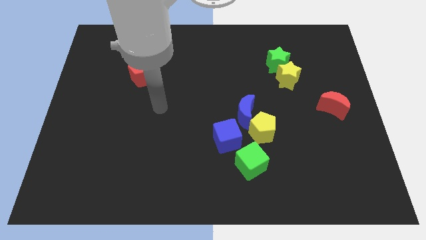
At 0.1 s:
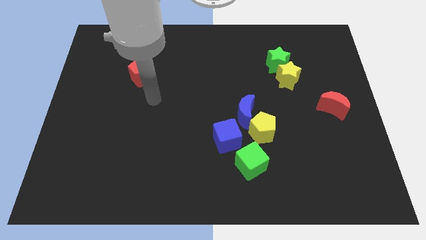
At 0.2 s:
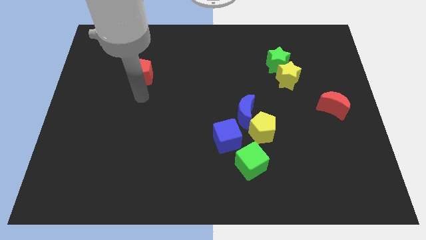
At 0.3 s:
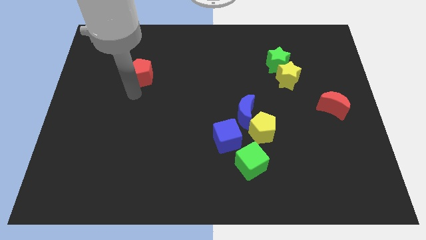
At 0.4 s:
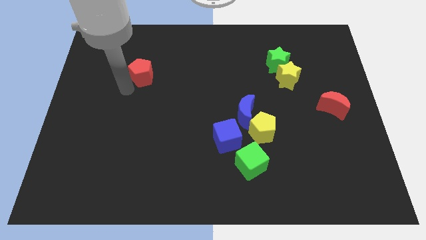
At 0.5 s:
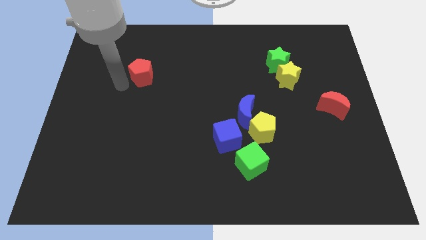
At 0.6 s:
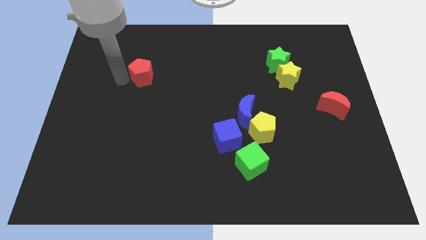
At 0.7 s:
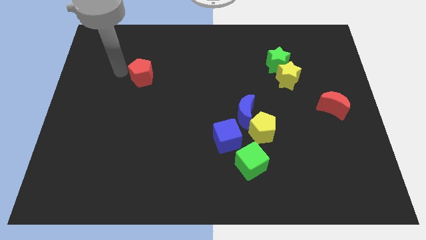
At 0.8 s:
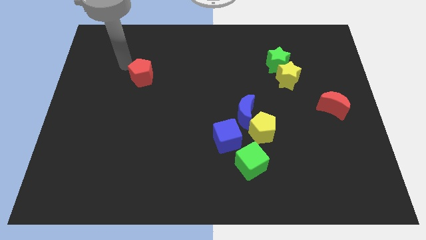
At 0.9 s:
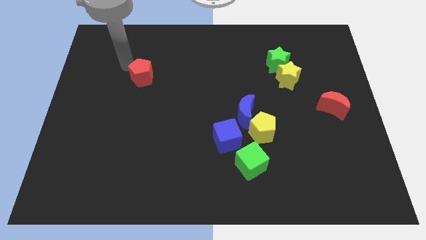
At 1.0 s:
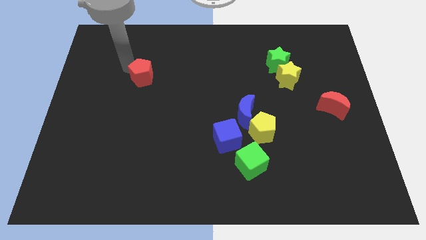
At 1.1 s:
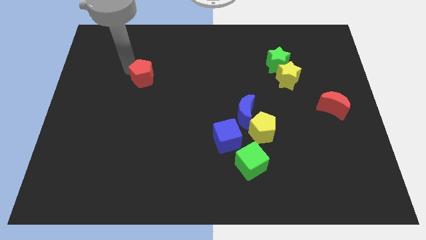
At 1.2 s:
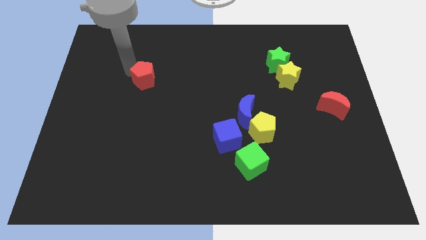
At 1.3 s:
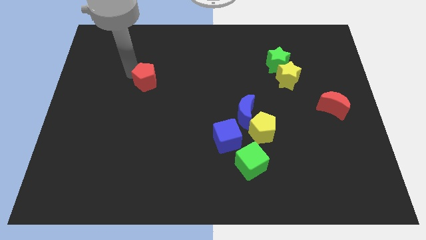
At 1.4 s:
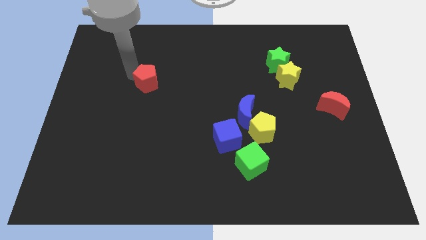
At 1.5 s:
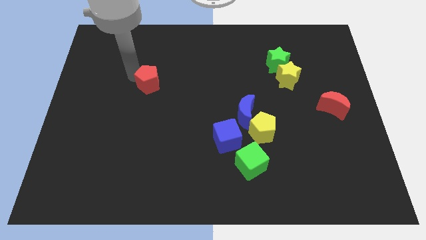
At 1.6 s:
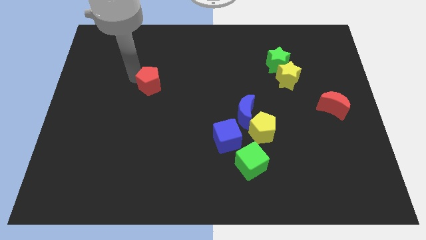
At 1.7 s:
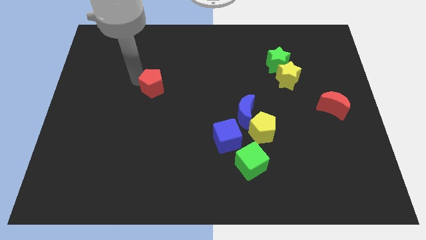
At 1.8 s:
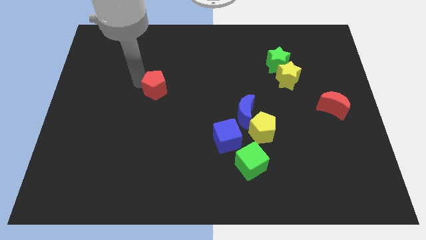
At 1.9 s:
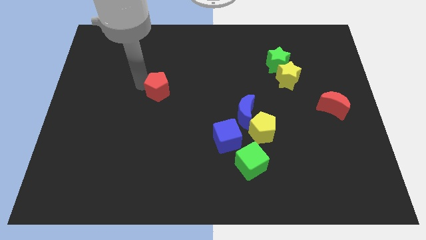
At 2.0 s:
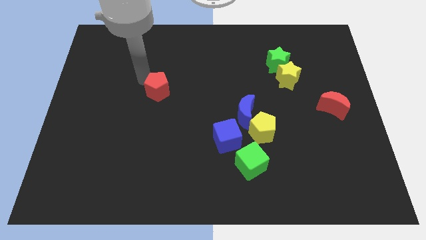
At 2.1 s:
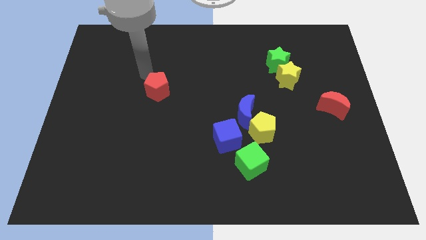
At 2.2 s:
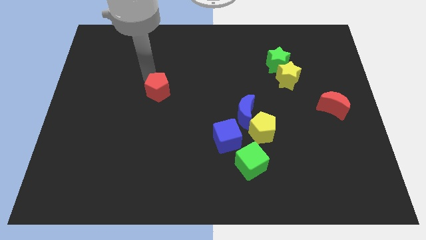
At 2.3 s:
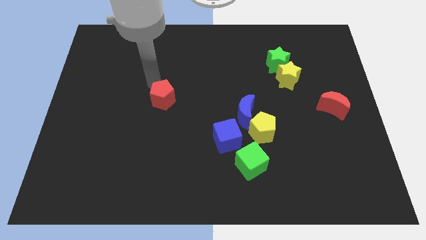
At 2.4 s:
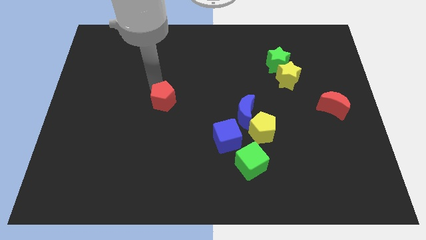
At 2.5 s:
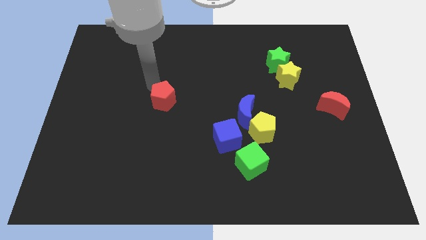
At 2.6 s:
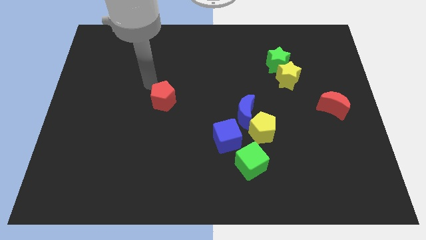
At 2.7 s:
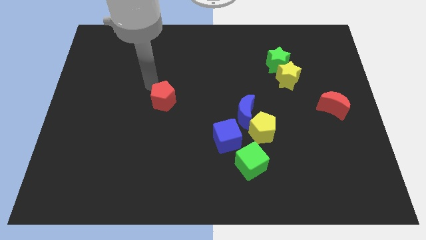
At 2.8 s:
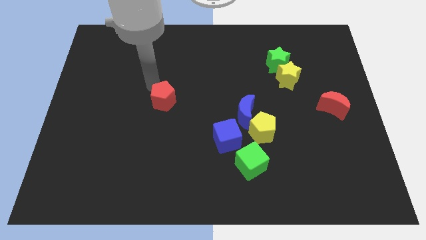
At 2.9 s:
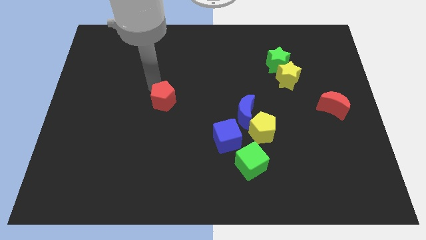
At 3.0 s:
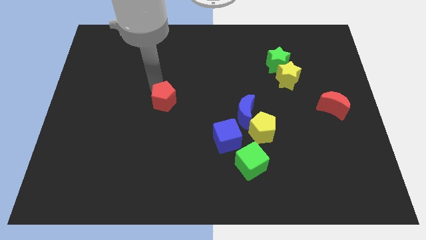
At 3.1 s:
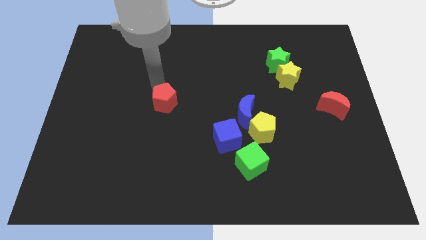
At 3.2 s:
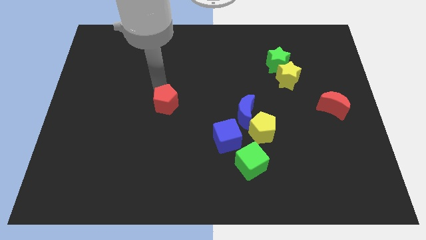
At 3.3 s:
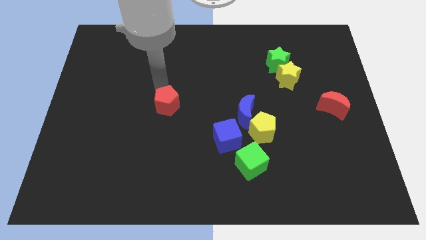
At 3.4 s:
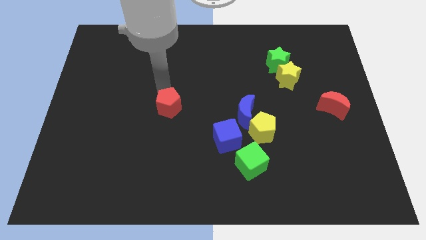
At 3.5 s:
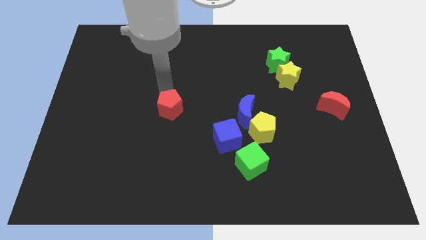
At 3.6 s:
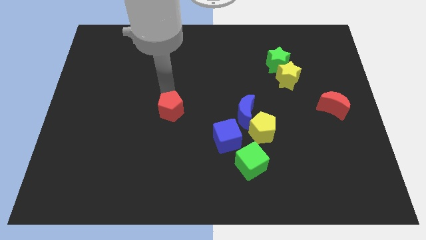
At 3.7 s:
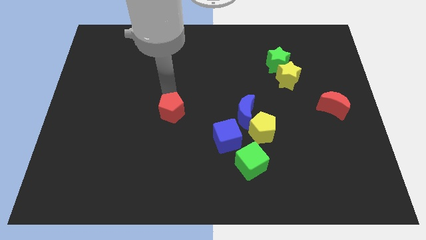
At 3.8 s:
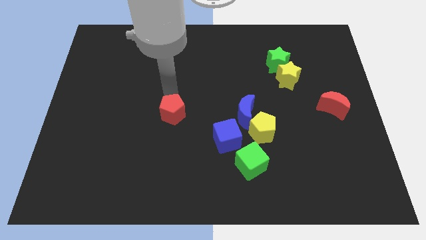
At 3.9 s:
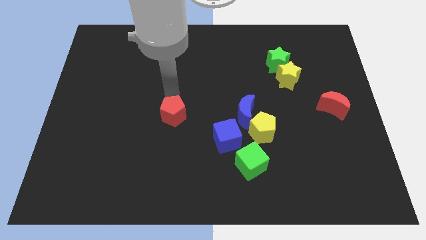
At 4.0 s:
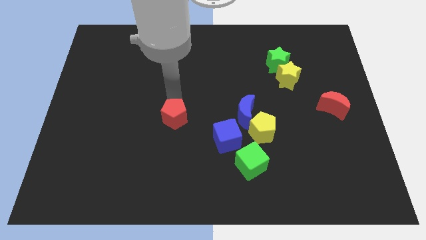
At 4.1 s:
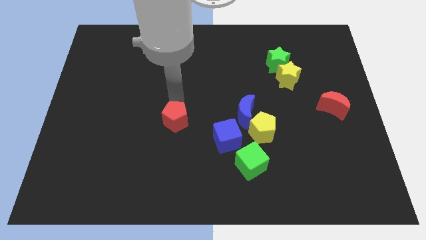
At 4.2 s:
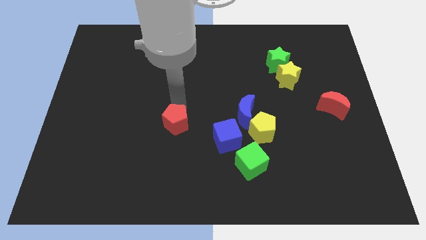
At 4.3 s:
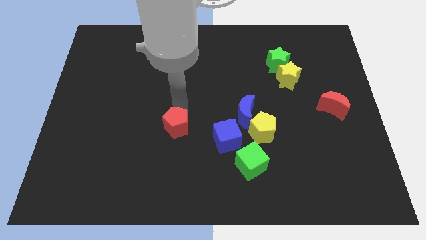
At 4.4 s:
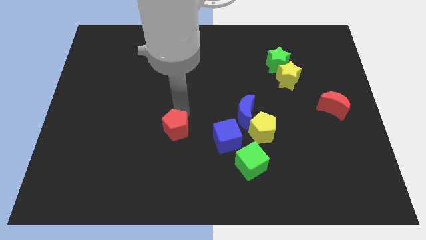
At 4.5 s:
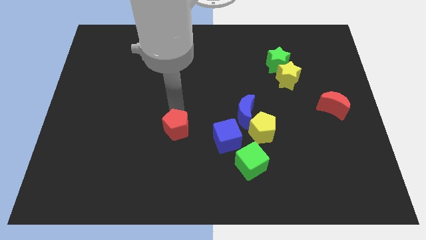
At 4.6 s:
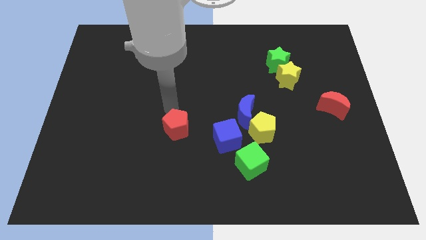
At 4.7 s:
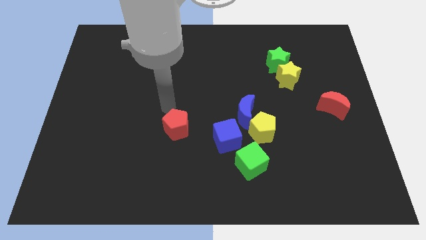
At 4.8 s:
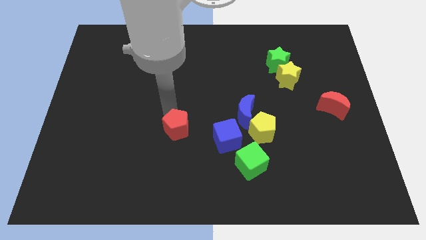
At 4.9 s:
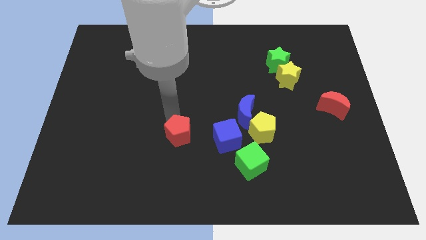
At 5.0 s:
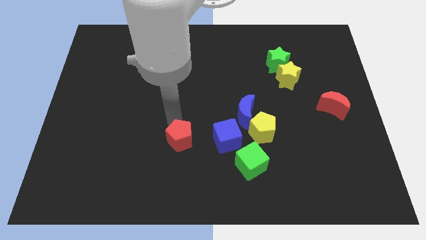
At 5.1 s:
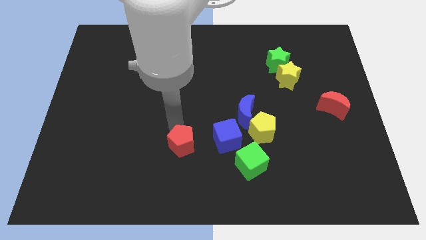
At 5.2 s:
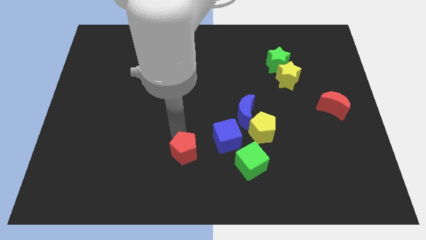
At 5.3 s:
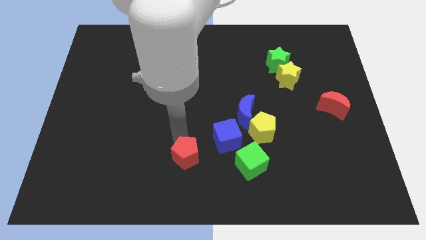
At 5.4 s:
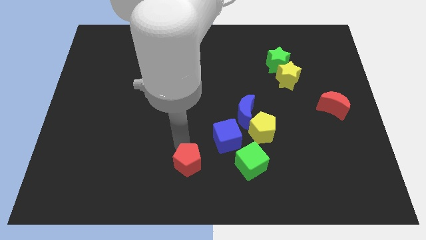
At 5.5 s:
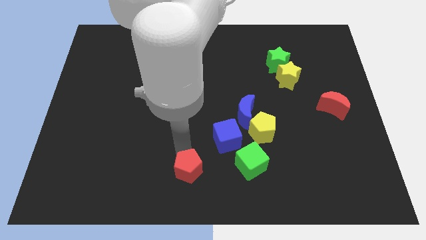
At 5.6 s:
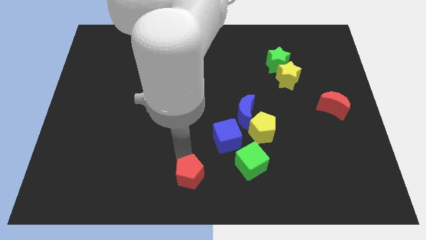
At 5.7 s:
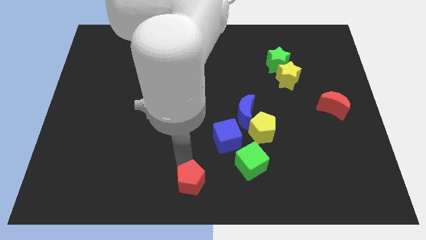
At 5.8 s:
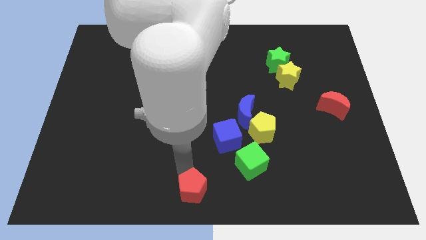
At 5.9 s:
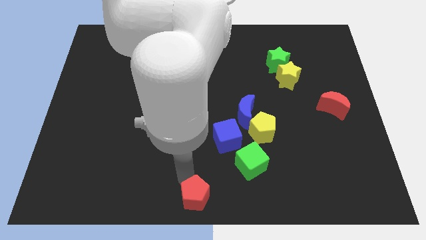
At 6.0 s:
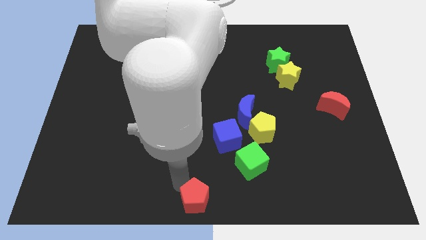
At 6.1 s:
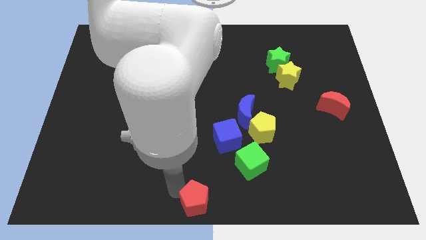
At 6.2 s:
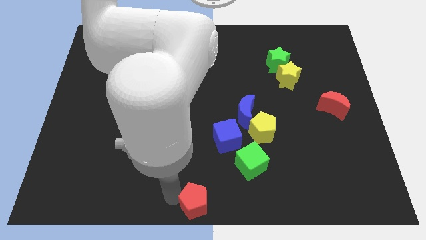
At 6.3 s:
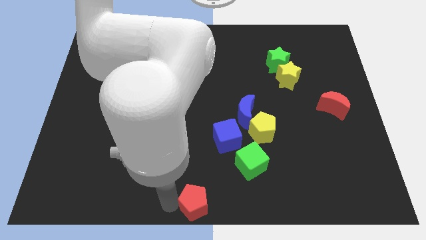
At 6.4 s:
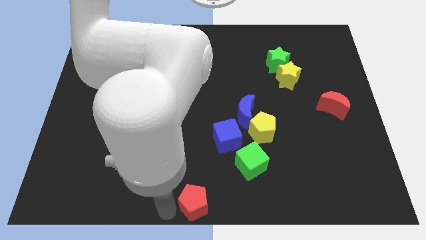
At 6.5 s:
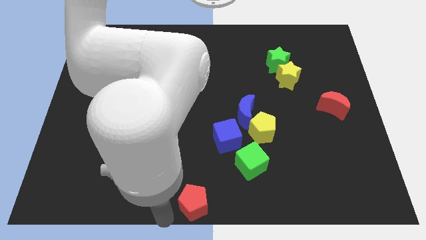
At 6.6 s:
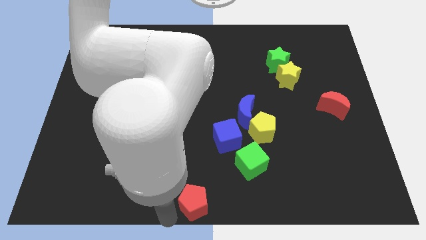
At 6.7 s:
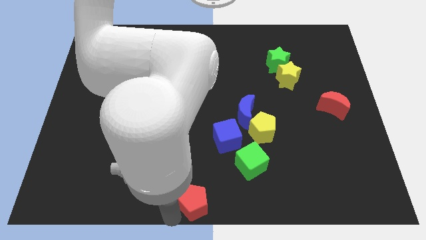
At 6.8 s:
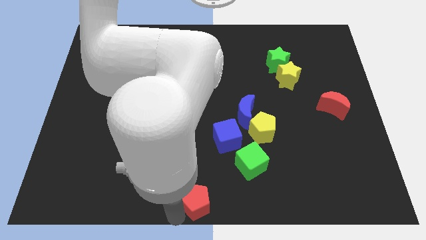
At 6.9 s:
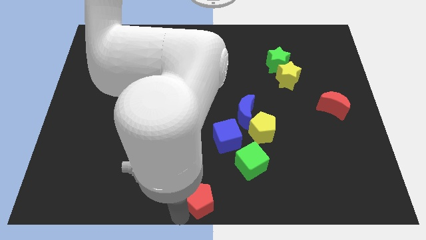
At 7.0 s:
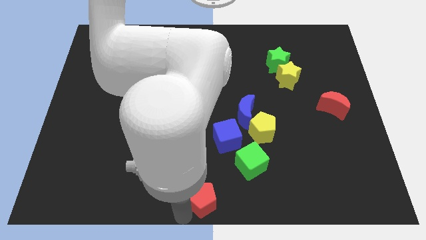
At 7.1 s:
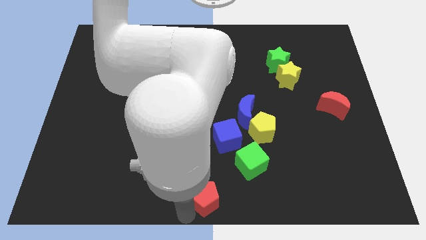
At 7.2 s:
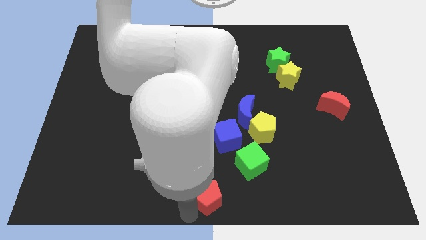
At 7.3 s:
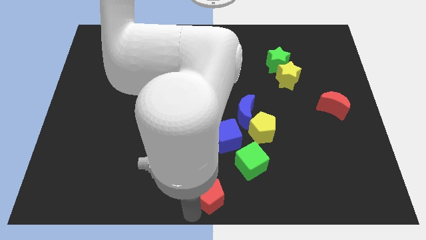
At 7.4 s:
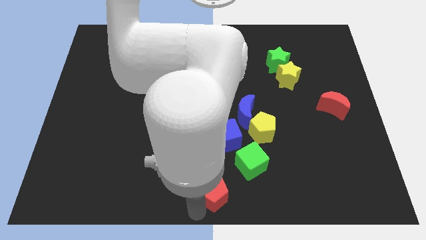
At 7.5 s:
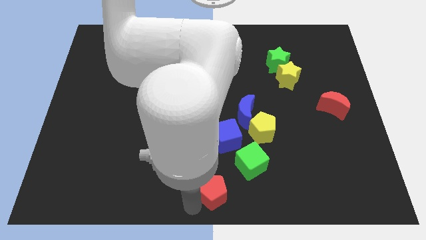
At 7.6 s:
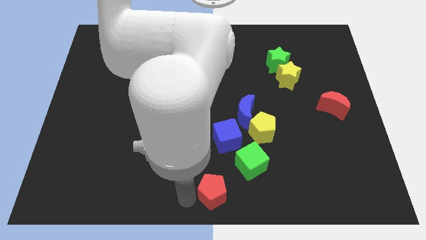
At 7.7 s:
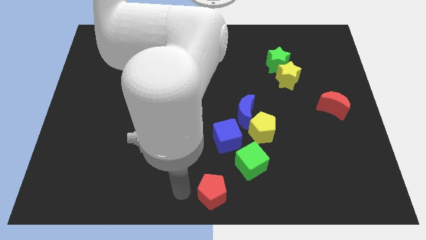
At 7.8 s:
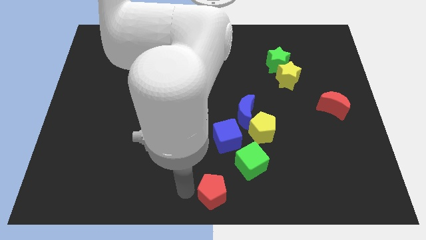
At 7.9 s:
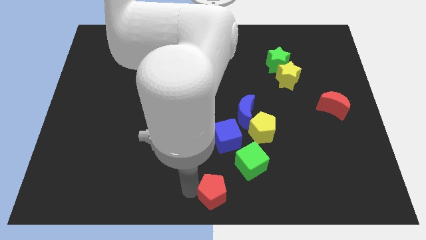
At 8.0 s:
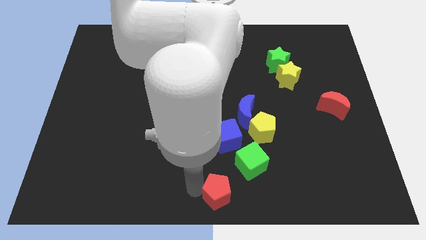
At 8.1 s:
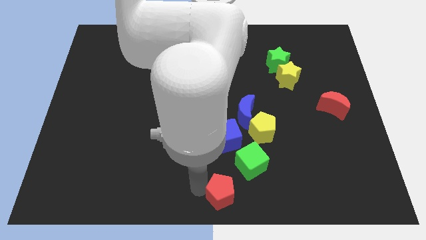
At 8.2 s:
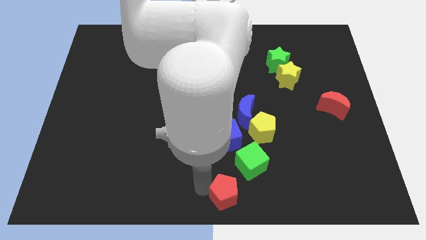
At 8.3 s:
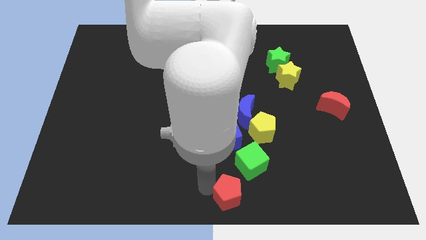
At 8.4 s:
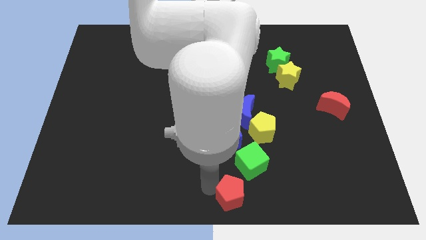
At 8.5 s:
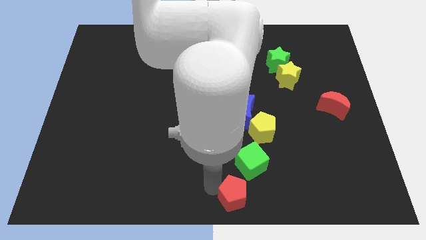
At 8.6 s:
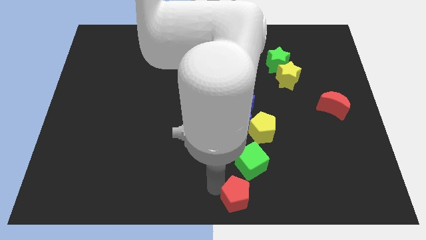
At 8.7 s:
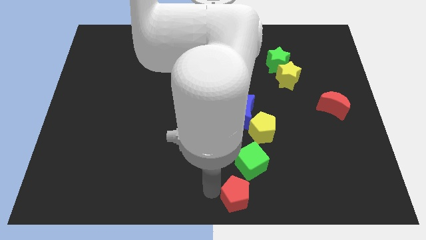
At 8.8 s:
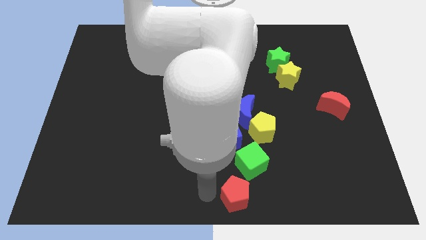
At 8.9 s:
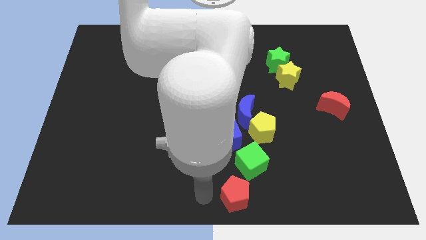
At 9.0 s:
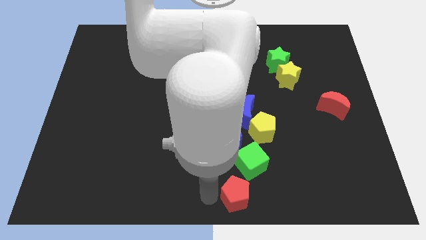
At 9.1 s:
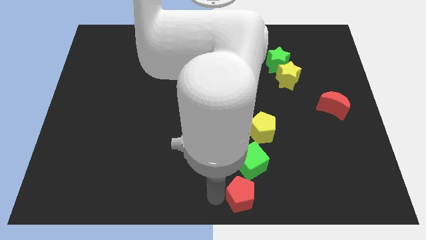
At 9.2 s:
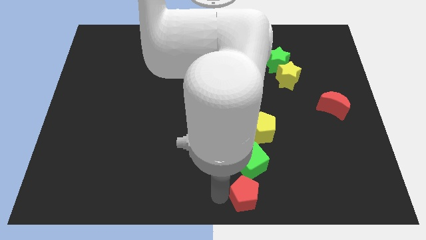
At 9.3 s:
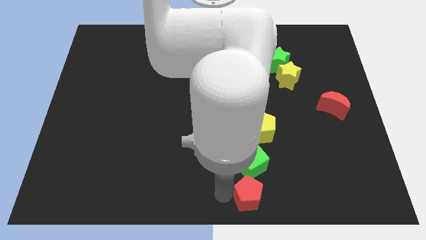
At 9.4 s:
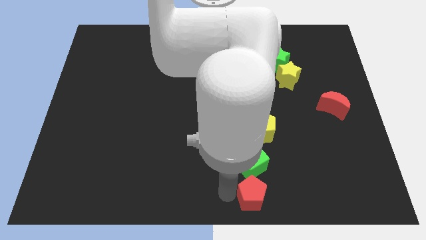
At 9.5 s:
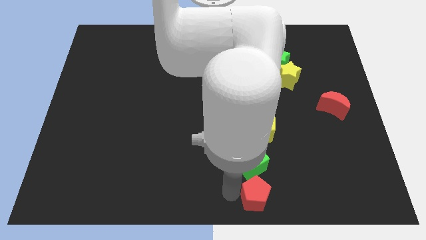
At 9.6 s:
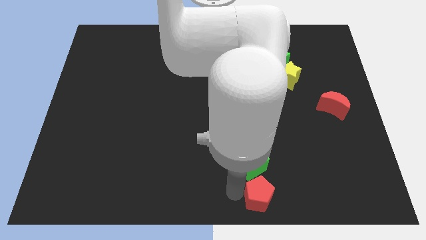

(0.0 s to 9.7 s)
put the red pentagon to the bottom of the yellow pentagon
